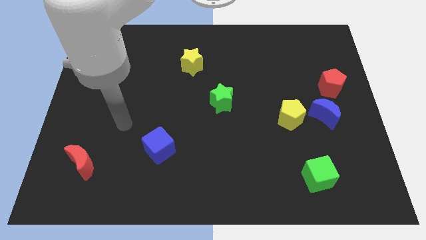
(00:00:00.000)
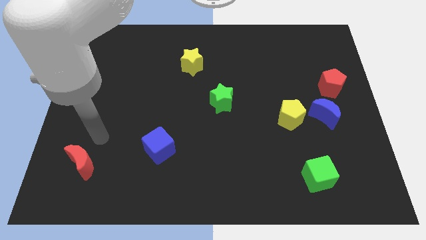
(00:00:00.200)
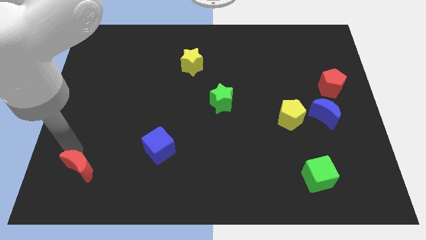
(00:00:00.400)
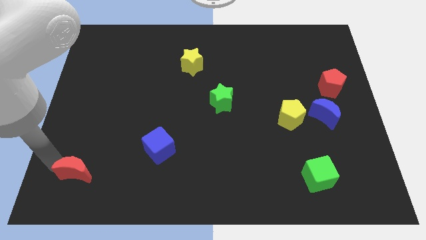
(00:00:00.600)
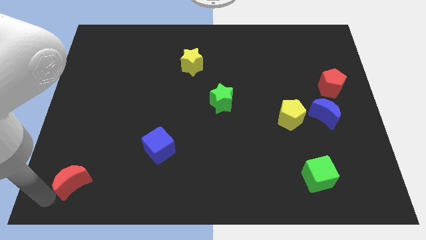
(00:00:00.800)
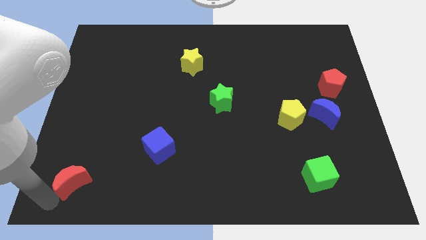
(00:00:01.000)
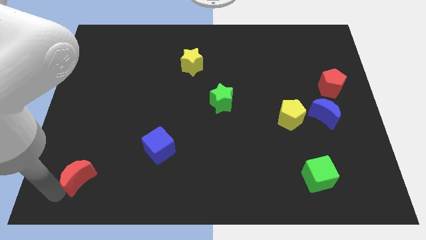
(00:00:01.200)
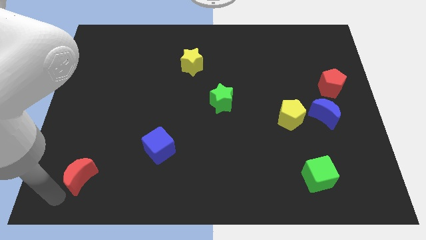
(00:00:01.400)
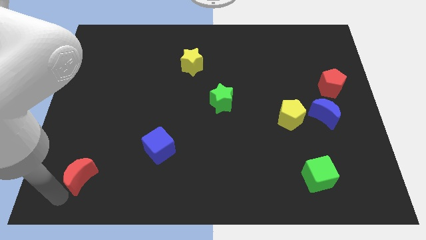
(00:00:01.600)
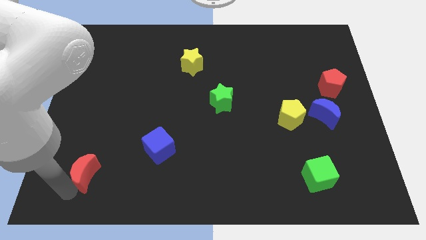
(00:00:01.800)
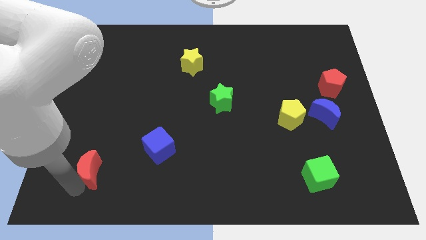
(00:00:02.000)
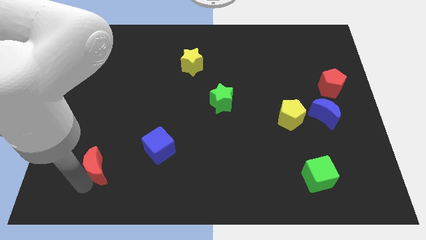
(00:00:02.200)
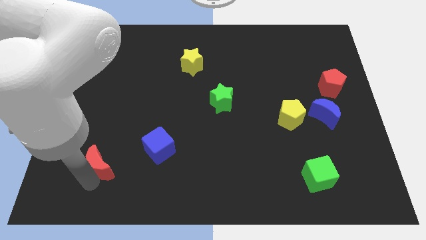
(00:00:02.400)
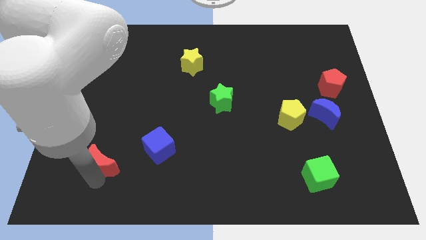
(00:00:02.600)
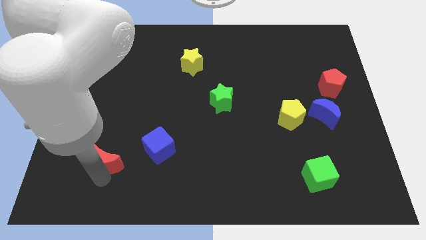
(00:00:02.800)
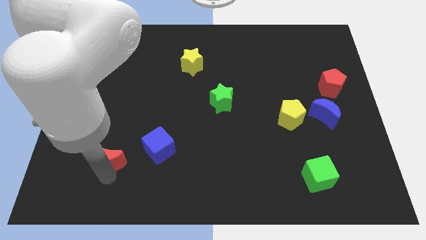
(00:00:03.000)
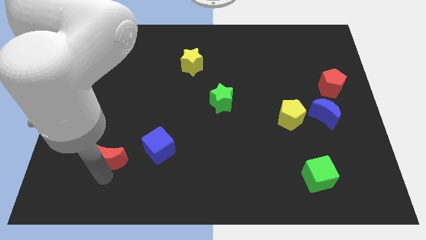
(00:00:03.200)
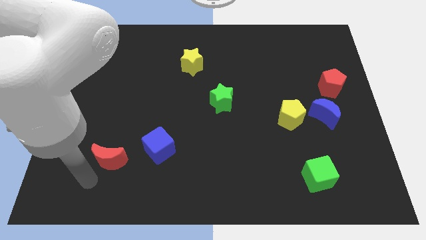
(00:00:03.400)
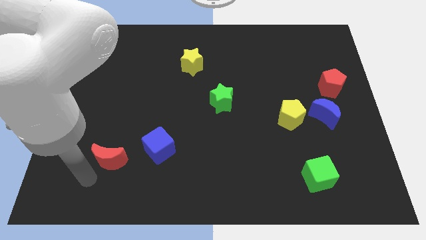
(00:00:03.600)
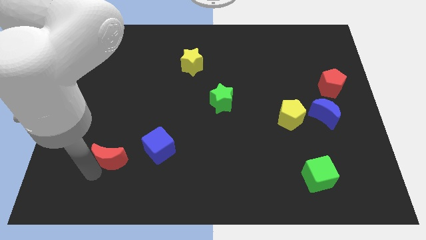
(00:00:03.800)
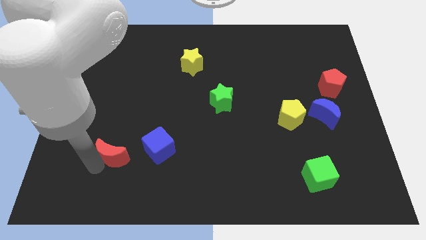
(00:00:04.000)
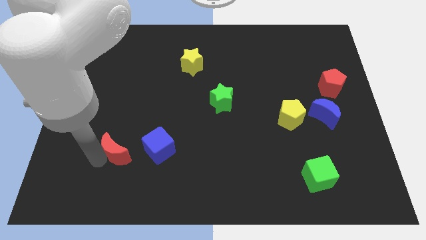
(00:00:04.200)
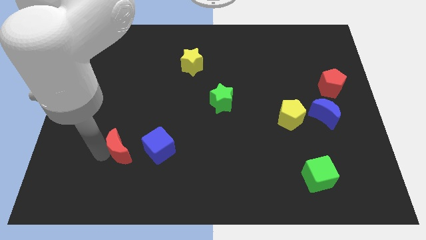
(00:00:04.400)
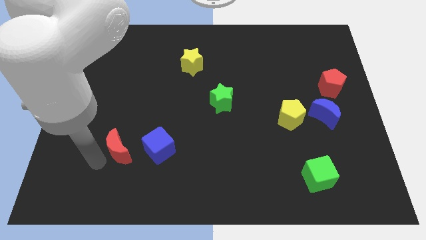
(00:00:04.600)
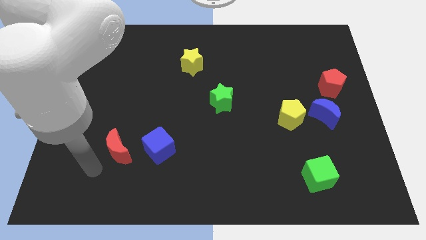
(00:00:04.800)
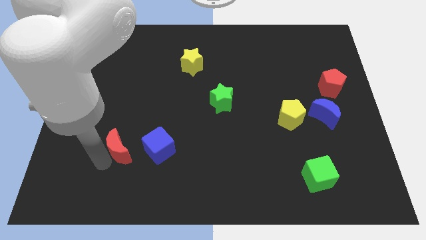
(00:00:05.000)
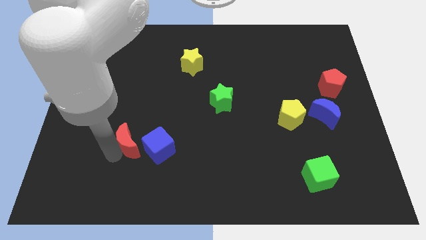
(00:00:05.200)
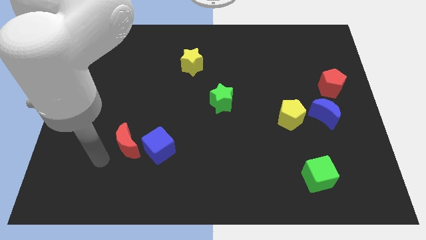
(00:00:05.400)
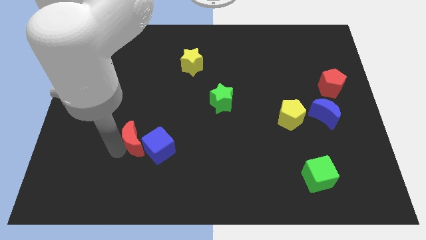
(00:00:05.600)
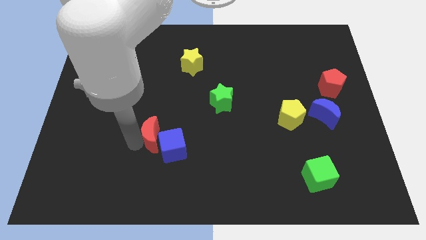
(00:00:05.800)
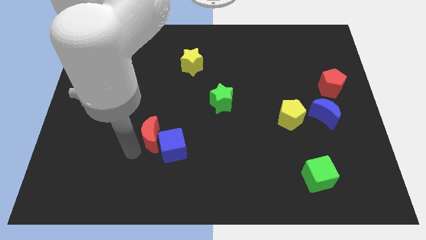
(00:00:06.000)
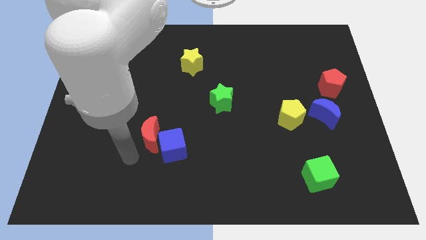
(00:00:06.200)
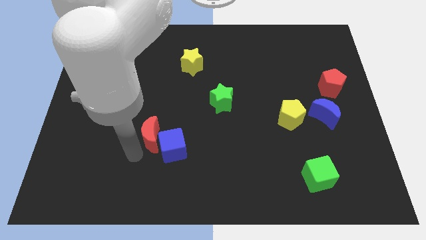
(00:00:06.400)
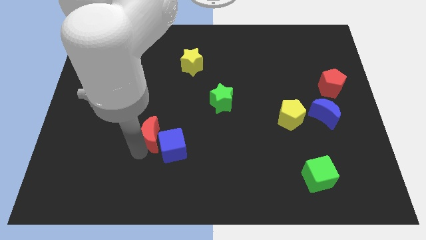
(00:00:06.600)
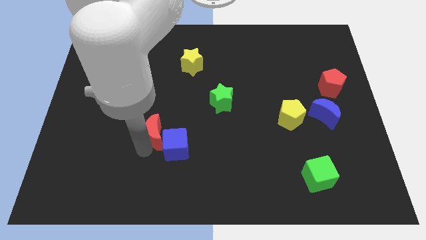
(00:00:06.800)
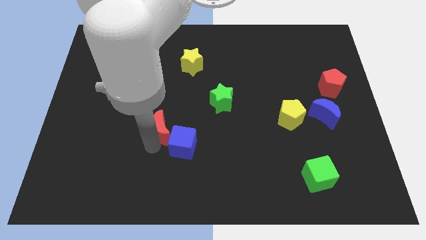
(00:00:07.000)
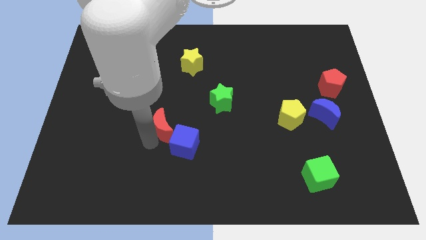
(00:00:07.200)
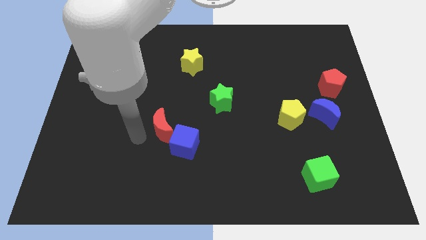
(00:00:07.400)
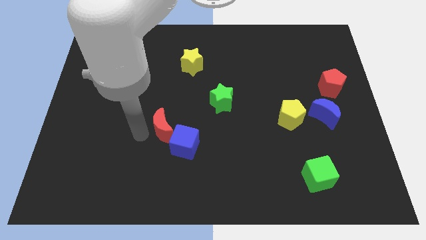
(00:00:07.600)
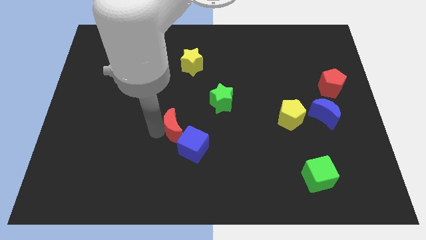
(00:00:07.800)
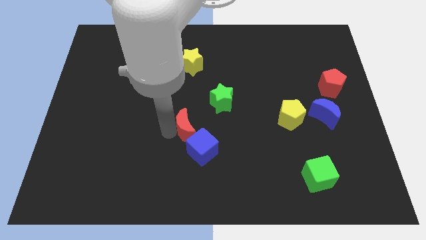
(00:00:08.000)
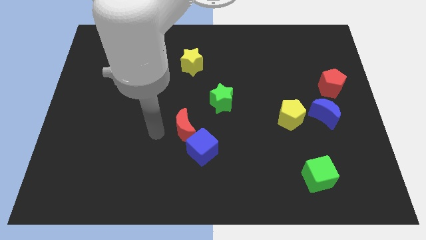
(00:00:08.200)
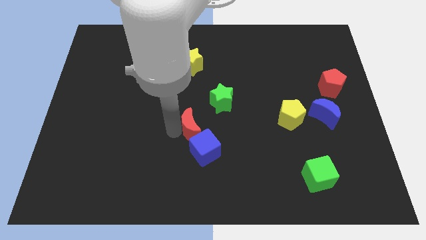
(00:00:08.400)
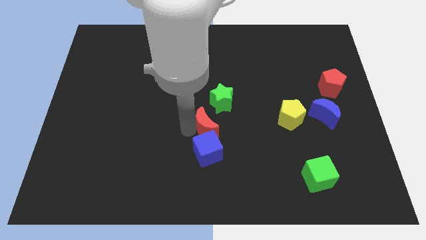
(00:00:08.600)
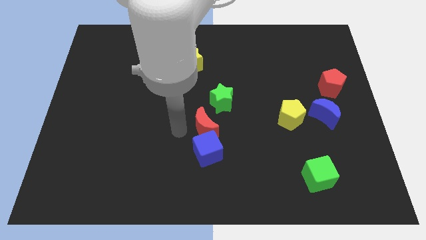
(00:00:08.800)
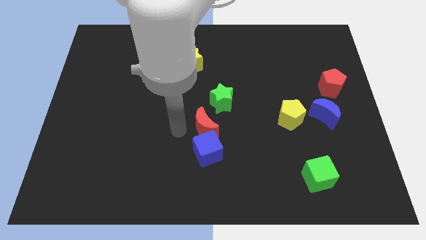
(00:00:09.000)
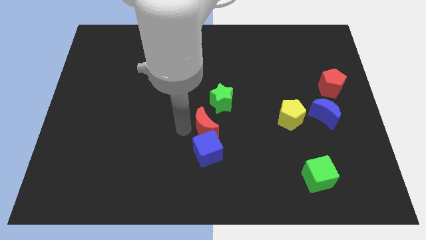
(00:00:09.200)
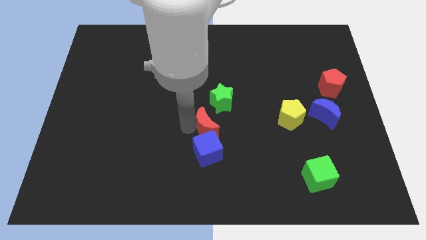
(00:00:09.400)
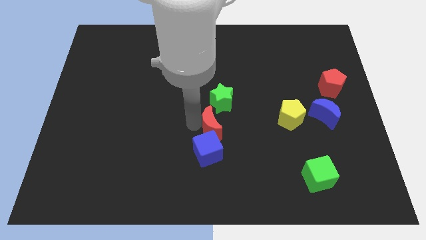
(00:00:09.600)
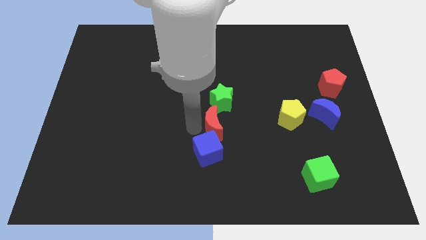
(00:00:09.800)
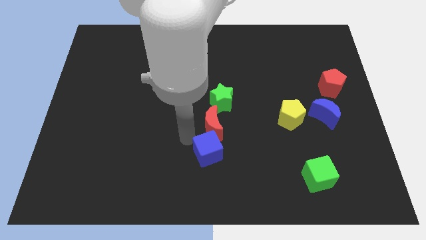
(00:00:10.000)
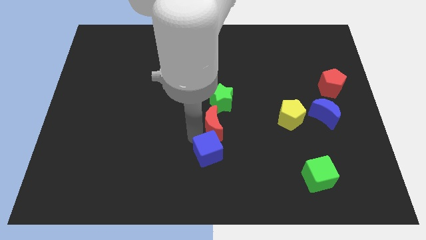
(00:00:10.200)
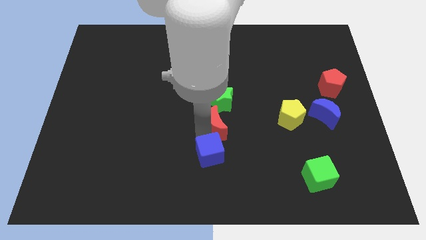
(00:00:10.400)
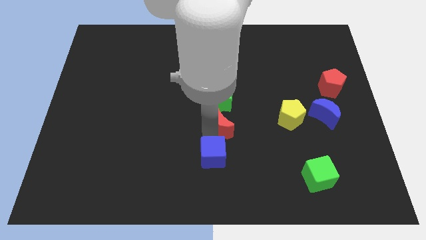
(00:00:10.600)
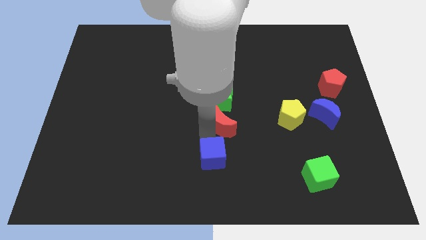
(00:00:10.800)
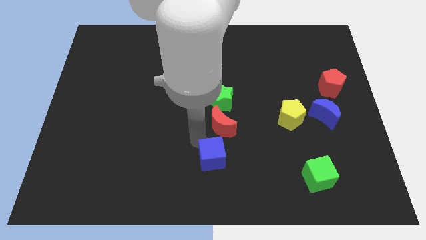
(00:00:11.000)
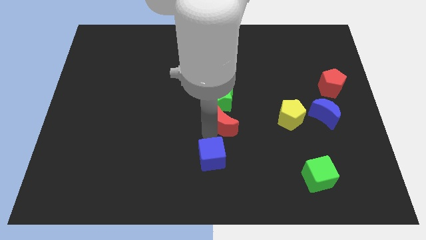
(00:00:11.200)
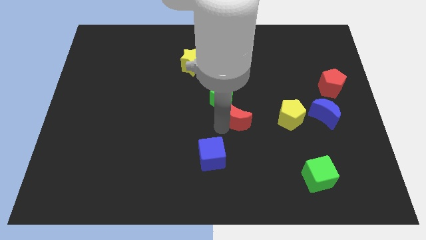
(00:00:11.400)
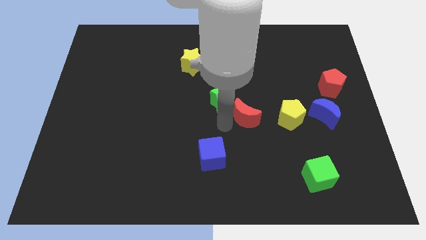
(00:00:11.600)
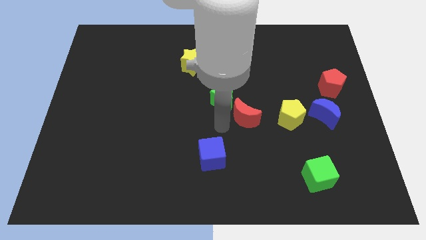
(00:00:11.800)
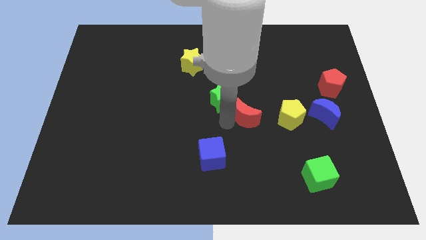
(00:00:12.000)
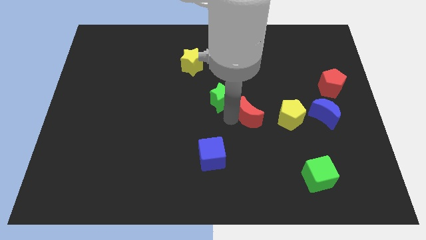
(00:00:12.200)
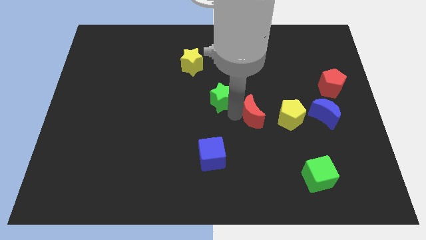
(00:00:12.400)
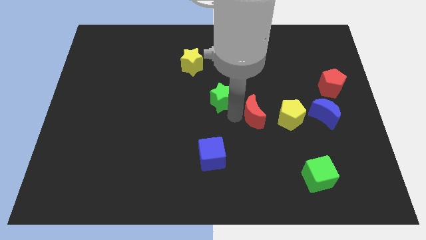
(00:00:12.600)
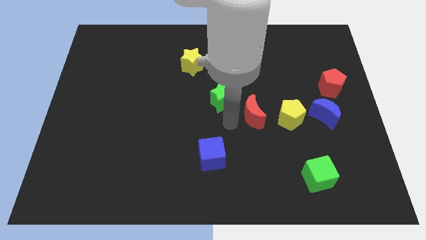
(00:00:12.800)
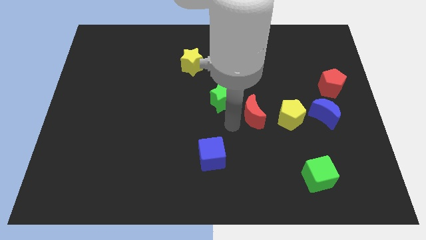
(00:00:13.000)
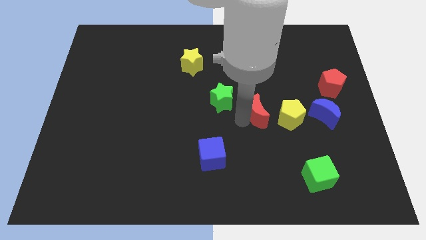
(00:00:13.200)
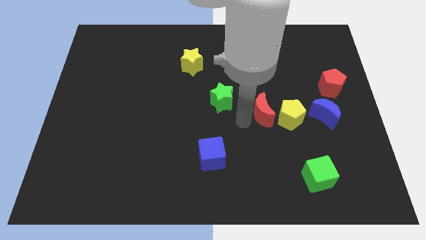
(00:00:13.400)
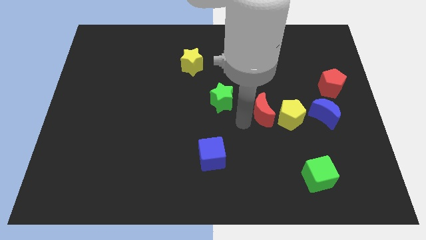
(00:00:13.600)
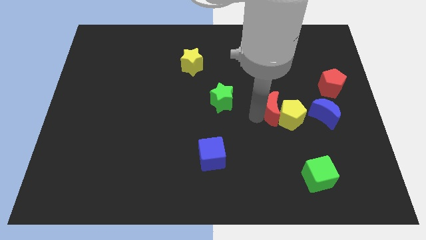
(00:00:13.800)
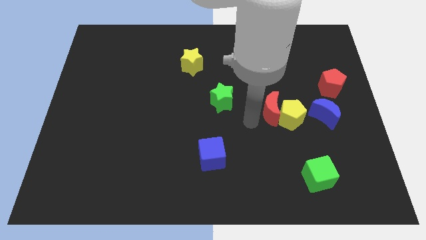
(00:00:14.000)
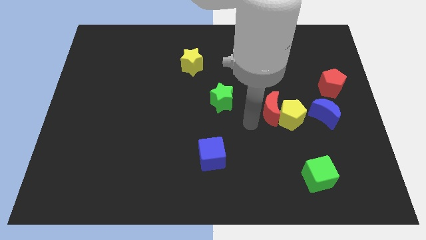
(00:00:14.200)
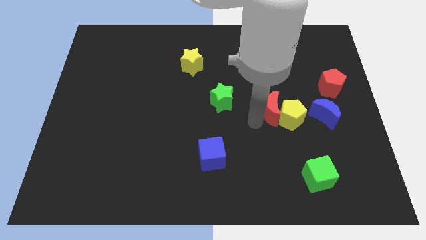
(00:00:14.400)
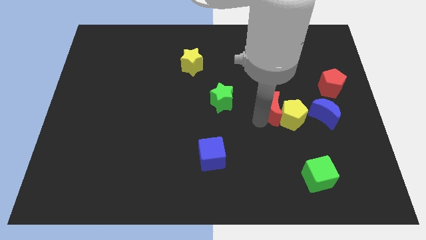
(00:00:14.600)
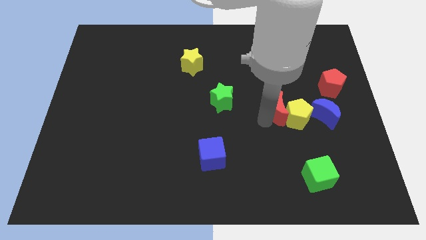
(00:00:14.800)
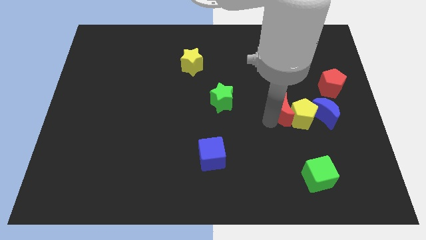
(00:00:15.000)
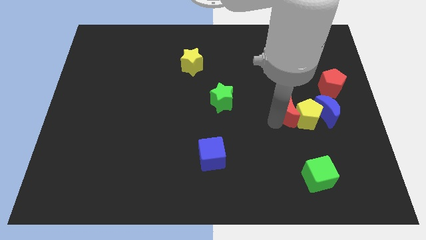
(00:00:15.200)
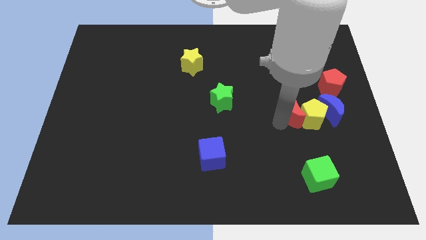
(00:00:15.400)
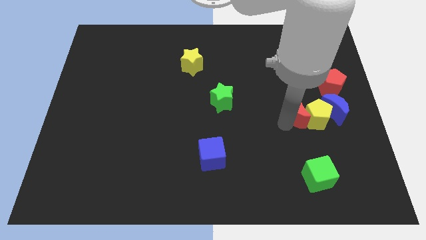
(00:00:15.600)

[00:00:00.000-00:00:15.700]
slide the red moon diagonally down and to the left of the red pentagon
